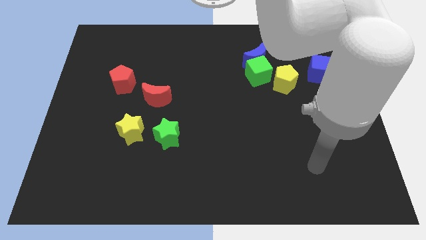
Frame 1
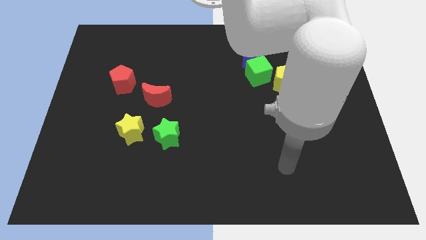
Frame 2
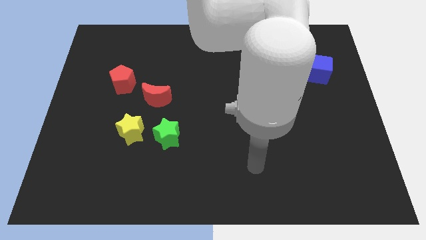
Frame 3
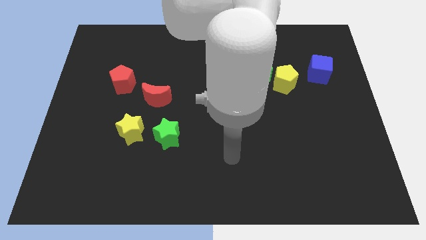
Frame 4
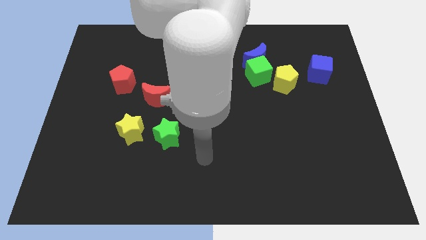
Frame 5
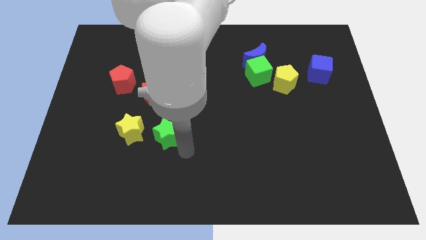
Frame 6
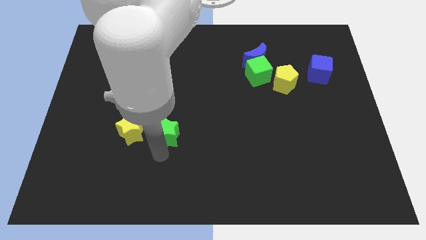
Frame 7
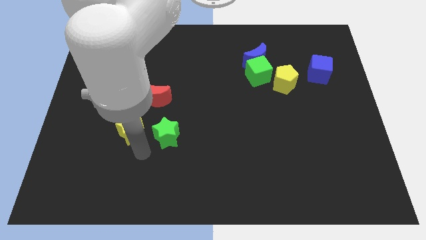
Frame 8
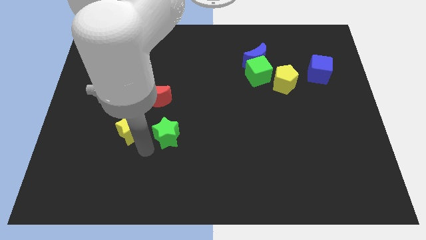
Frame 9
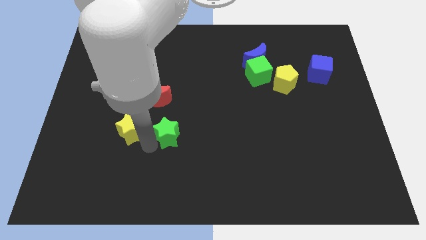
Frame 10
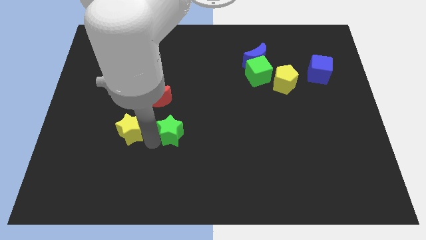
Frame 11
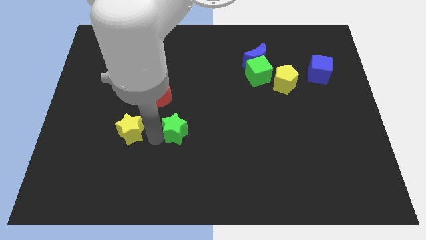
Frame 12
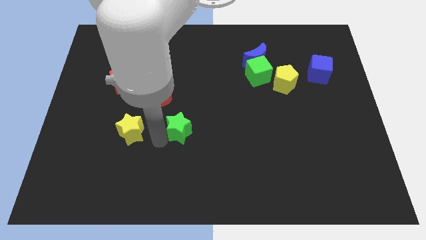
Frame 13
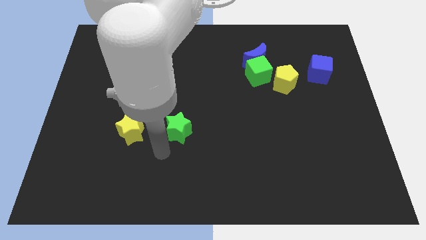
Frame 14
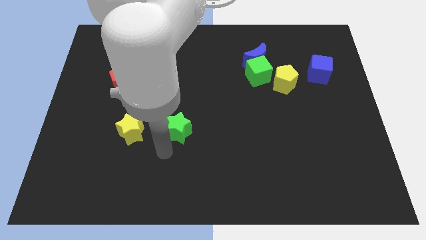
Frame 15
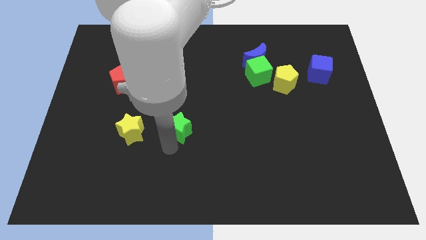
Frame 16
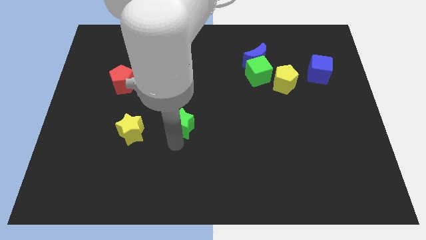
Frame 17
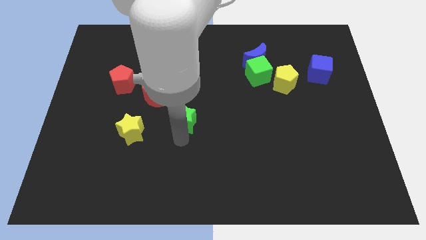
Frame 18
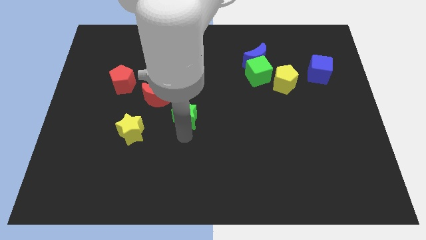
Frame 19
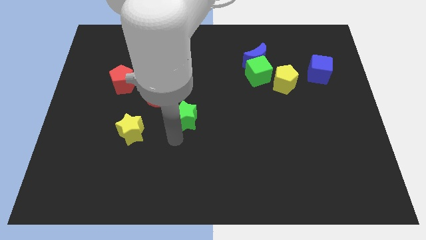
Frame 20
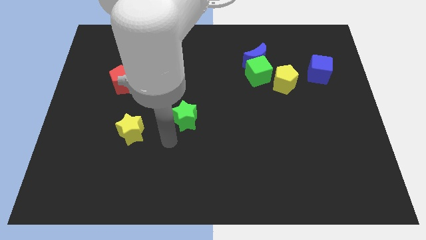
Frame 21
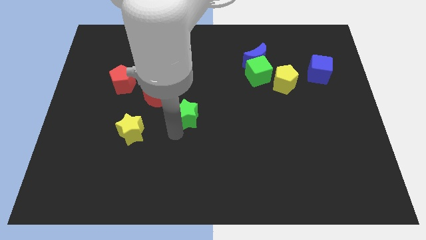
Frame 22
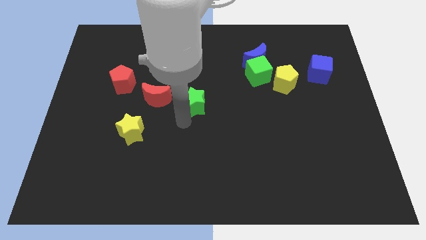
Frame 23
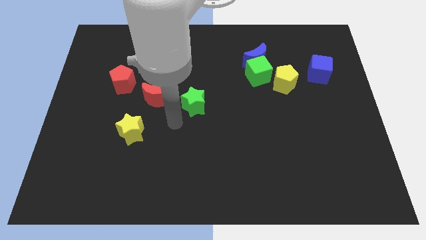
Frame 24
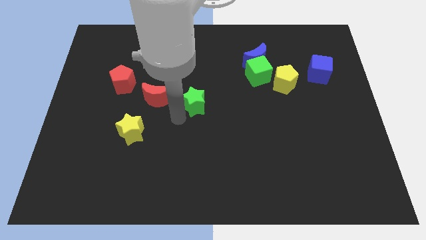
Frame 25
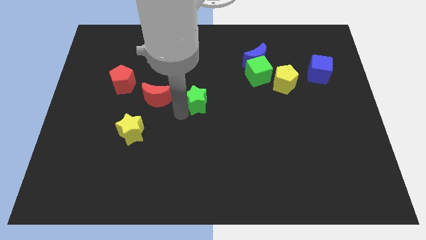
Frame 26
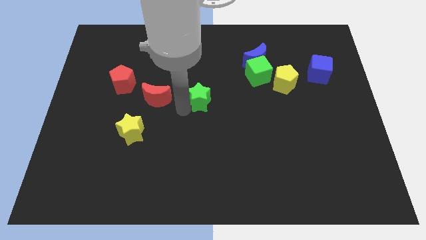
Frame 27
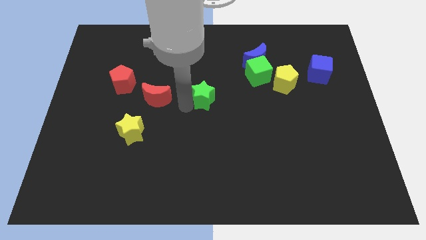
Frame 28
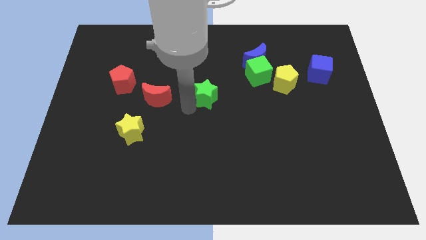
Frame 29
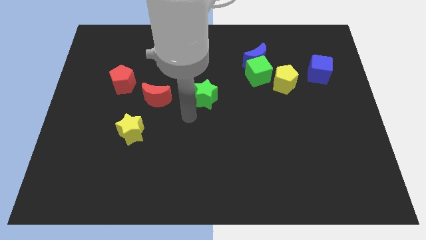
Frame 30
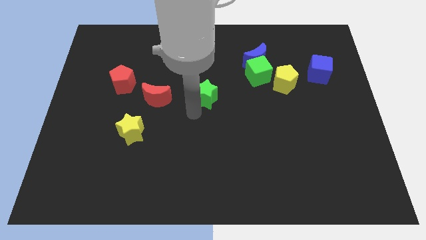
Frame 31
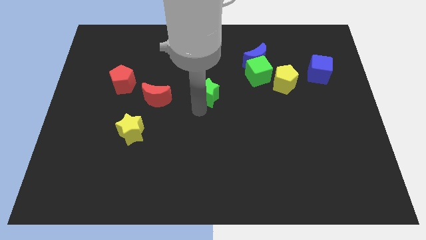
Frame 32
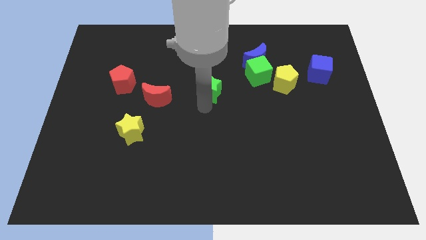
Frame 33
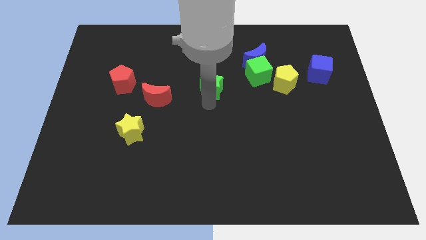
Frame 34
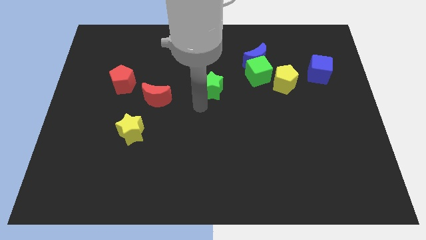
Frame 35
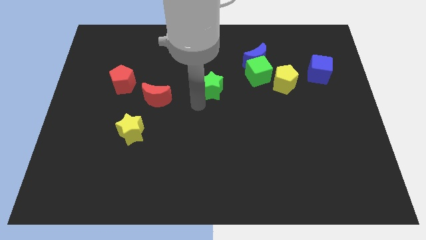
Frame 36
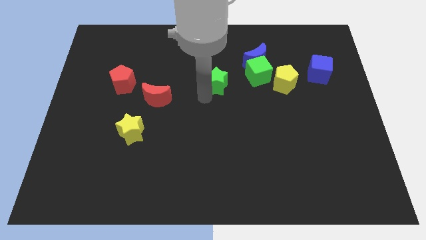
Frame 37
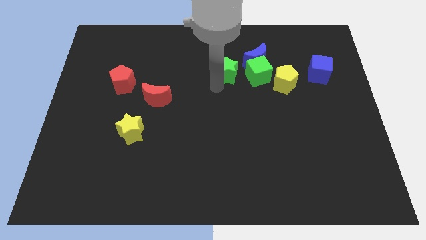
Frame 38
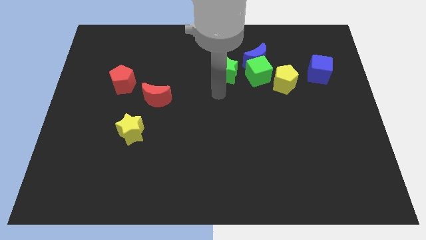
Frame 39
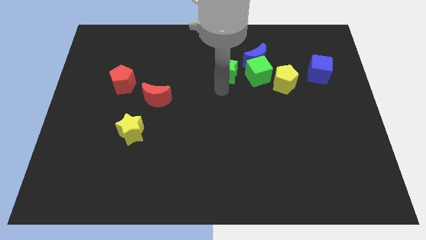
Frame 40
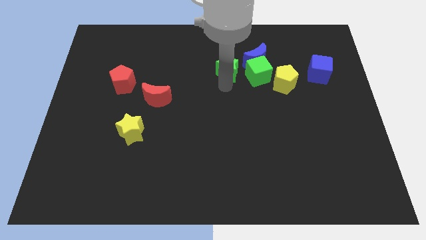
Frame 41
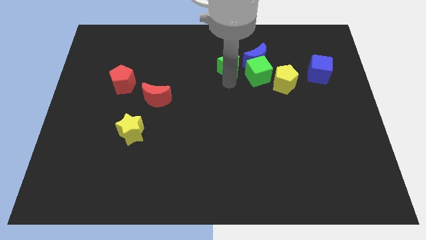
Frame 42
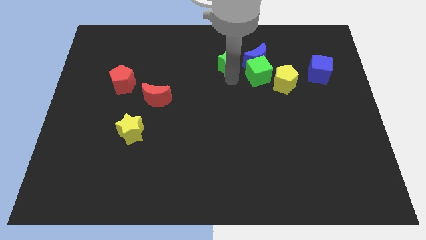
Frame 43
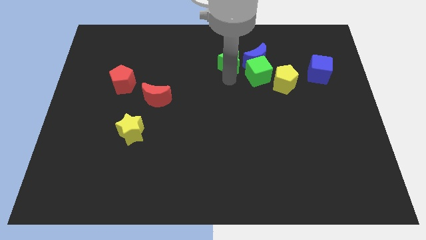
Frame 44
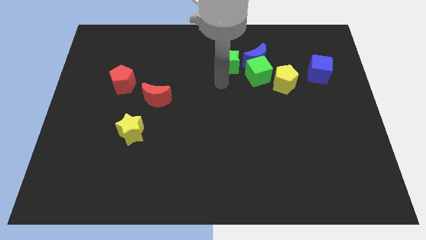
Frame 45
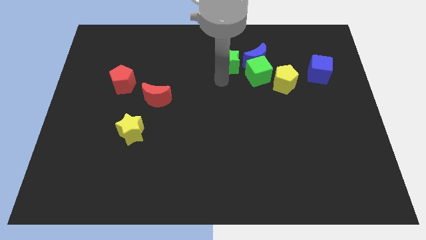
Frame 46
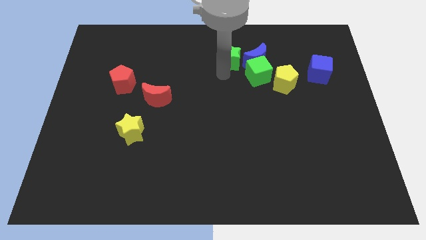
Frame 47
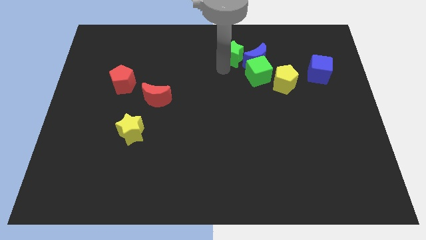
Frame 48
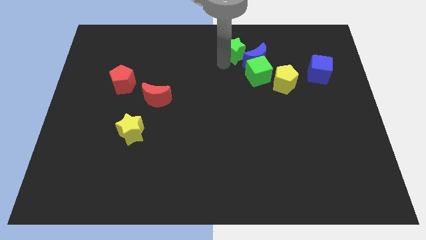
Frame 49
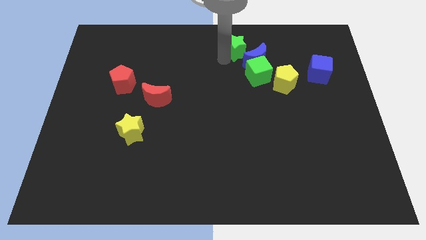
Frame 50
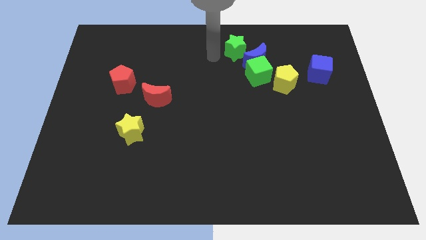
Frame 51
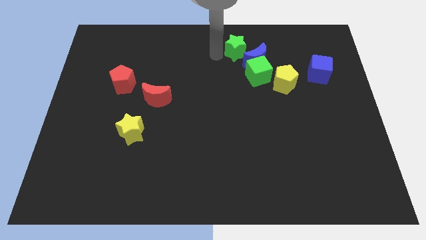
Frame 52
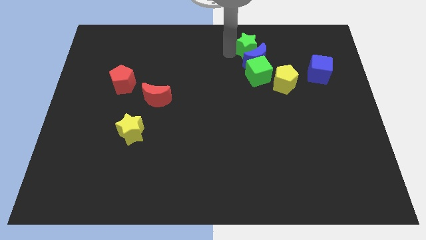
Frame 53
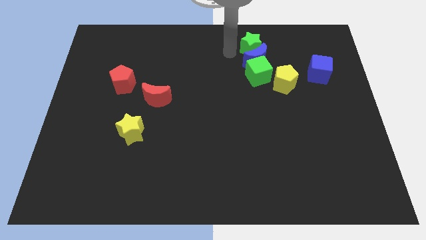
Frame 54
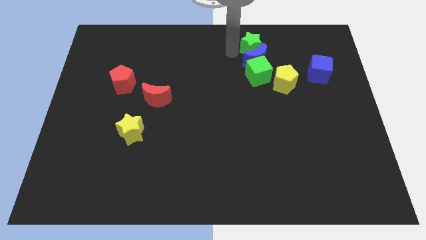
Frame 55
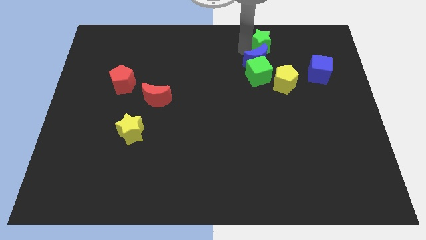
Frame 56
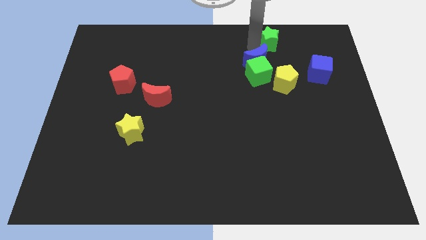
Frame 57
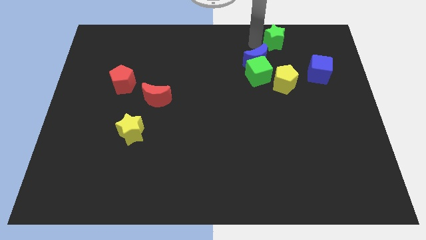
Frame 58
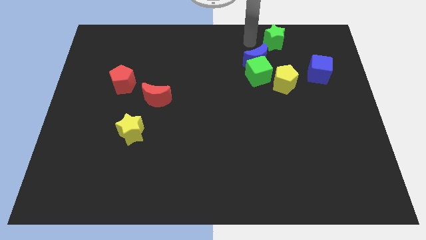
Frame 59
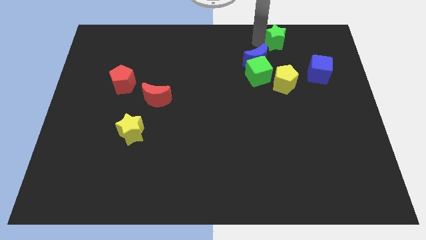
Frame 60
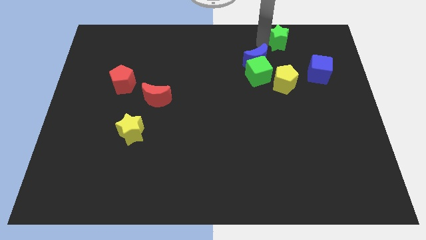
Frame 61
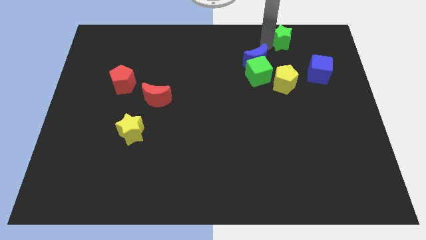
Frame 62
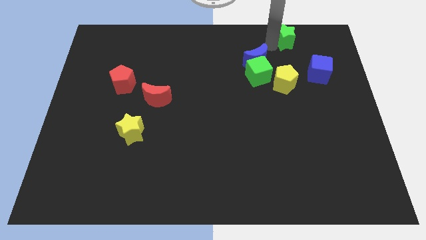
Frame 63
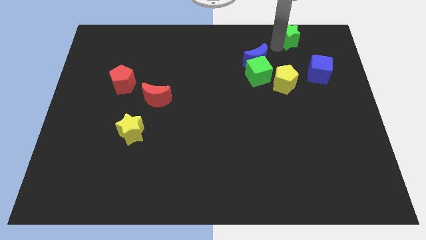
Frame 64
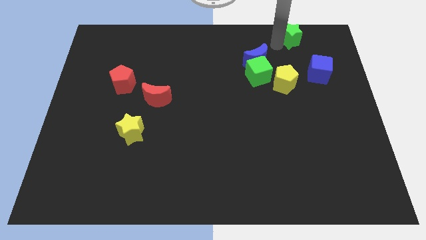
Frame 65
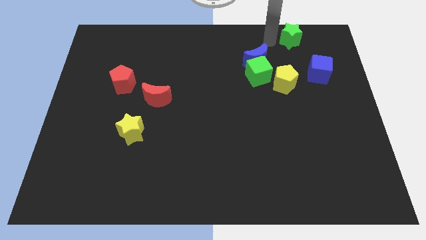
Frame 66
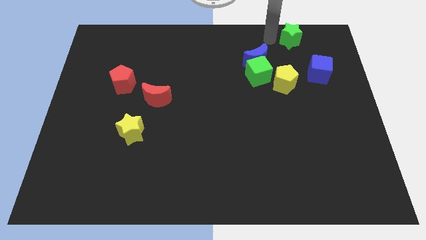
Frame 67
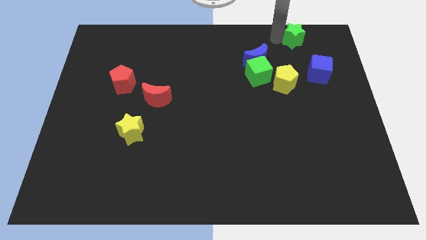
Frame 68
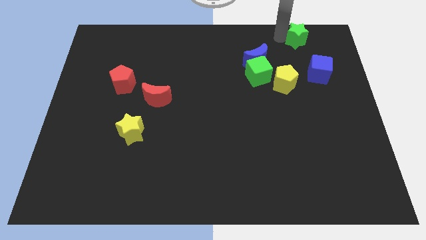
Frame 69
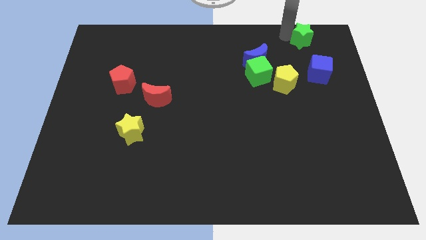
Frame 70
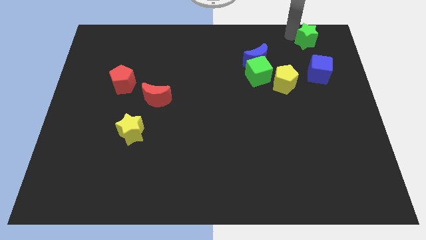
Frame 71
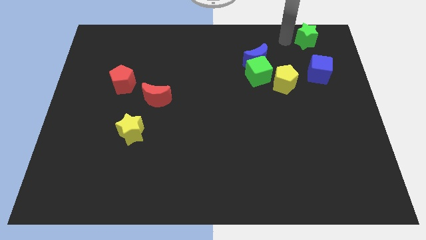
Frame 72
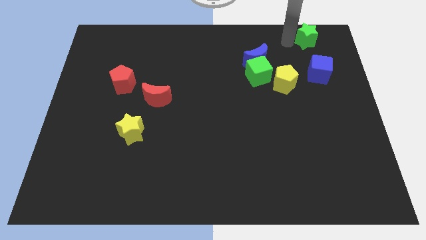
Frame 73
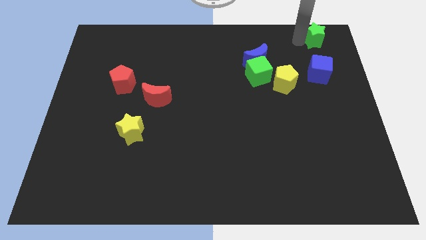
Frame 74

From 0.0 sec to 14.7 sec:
push the green star to the top right of the board
